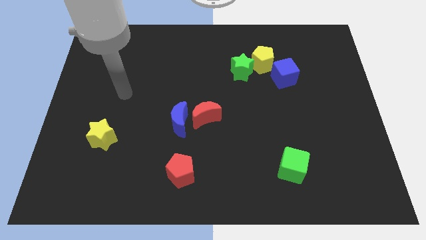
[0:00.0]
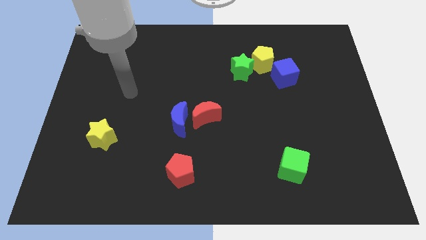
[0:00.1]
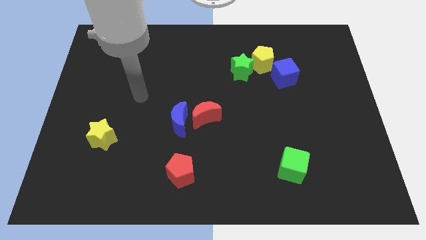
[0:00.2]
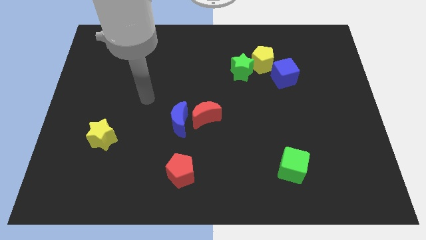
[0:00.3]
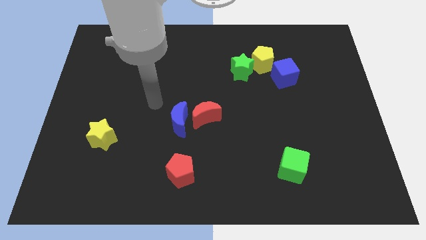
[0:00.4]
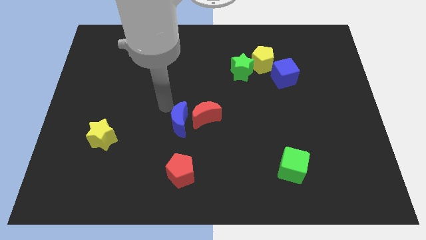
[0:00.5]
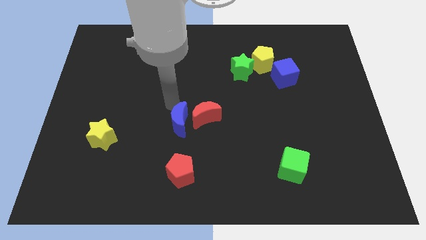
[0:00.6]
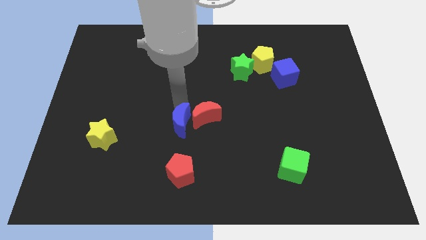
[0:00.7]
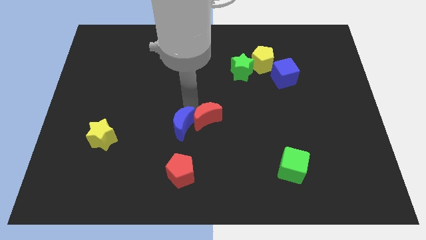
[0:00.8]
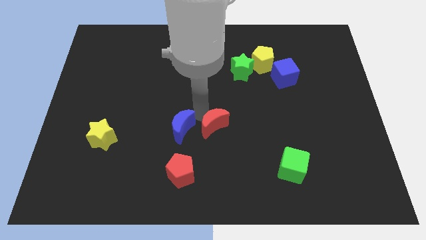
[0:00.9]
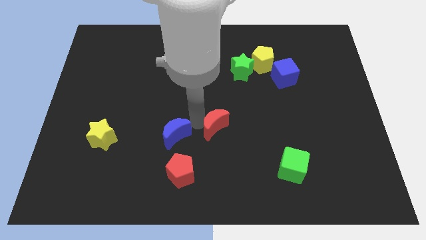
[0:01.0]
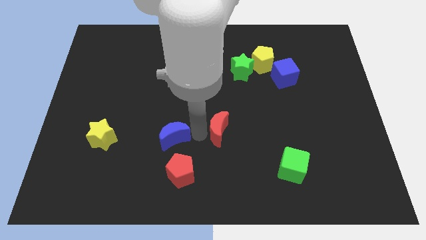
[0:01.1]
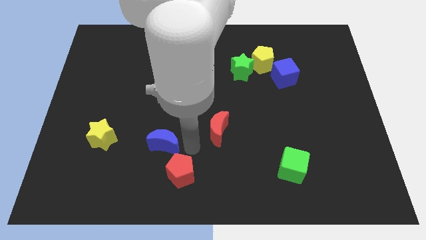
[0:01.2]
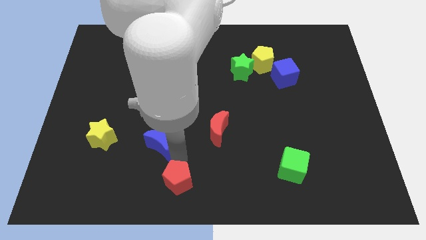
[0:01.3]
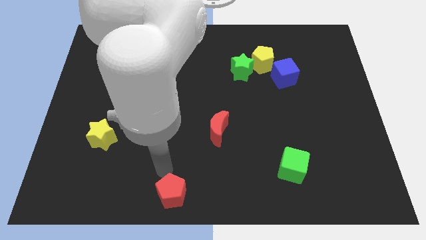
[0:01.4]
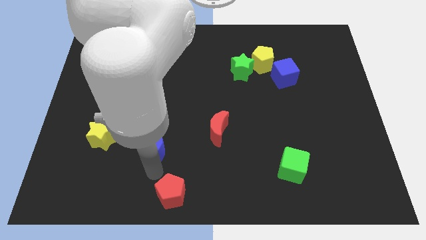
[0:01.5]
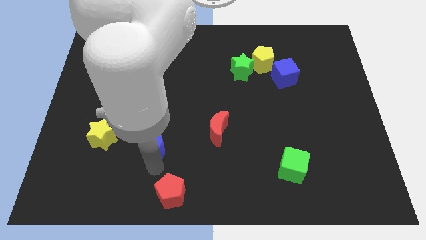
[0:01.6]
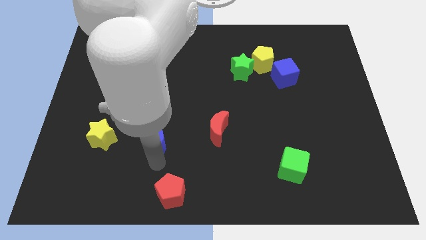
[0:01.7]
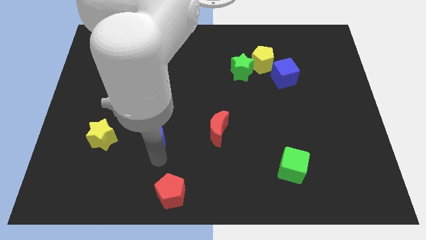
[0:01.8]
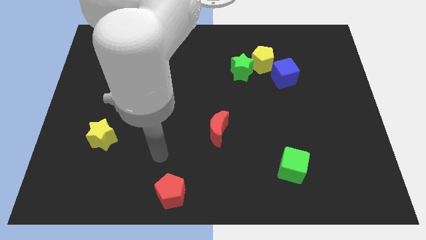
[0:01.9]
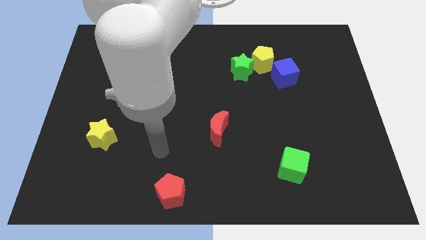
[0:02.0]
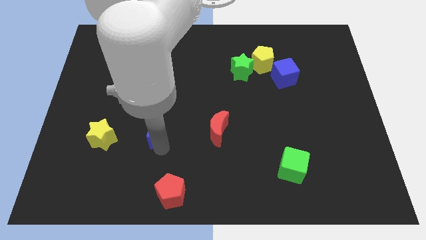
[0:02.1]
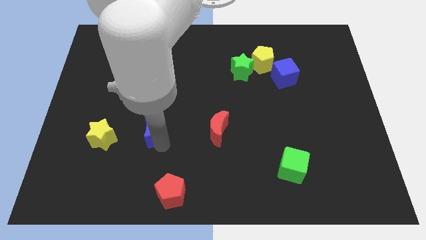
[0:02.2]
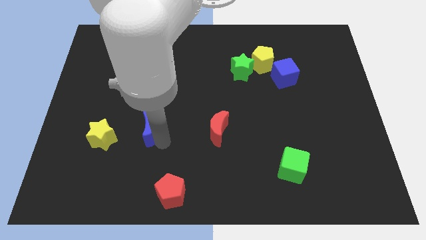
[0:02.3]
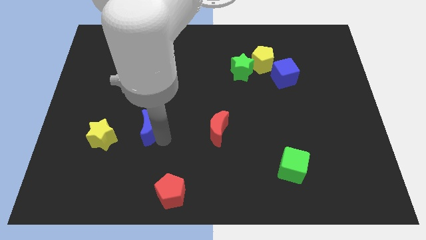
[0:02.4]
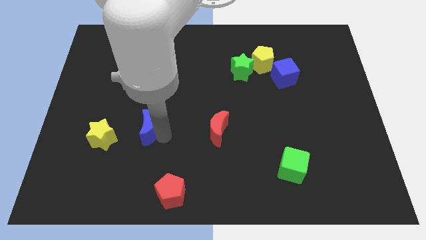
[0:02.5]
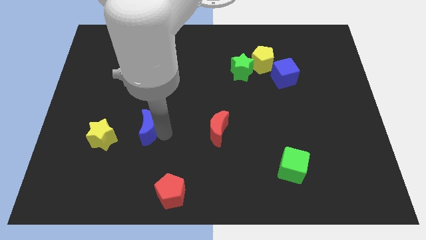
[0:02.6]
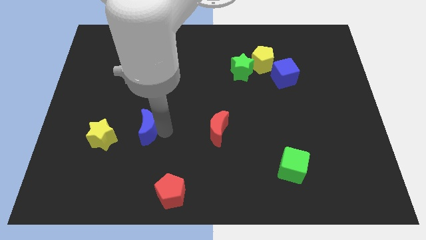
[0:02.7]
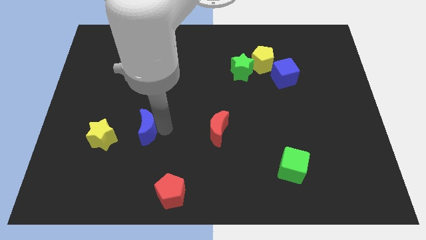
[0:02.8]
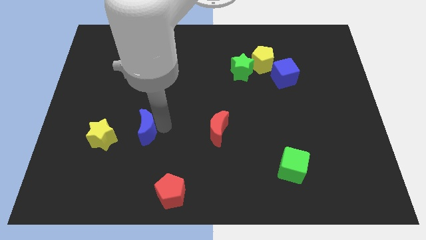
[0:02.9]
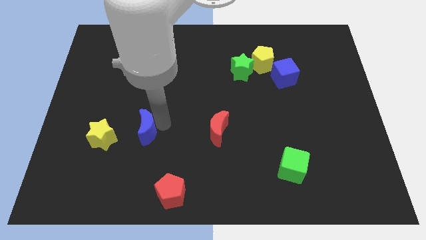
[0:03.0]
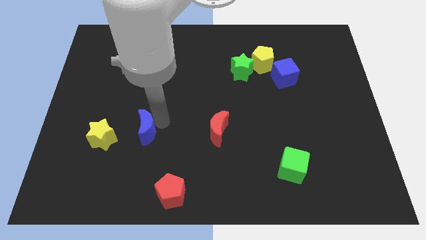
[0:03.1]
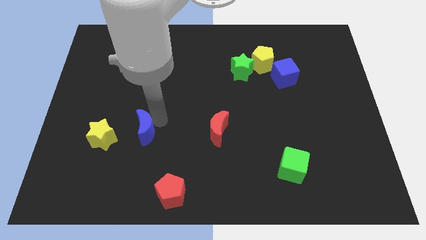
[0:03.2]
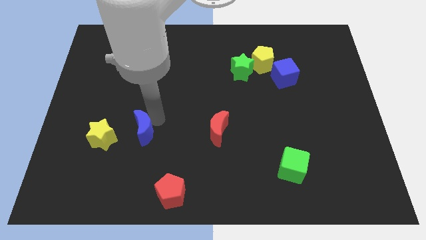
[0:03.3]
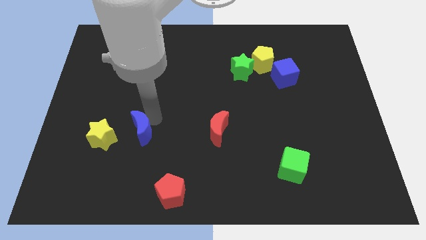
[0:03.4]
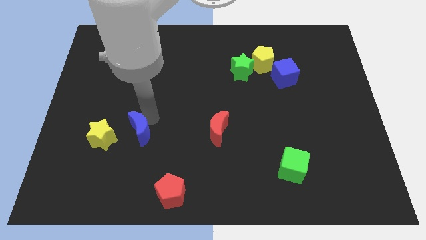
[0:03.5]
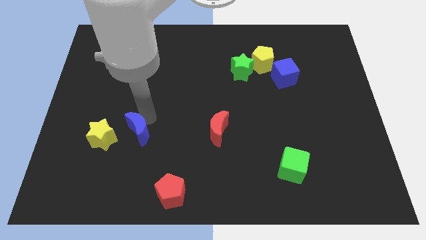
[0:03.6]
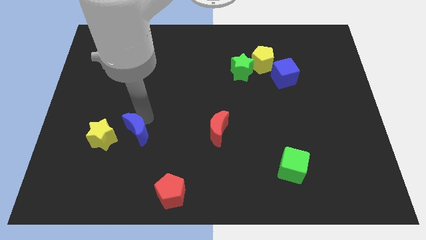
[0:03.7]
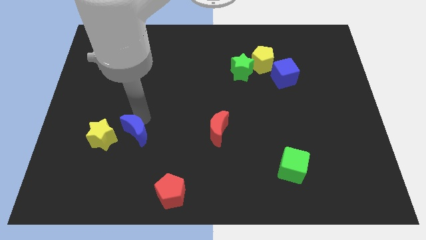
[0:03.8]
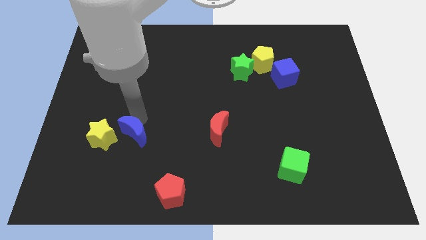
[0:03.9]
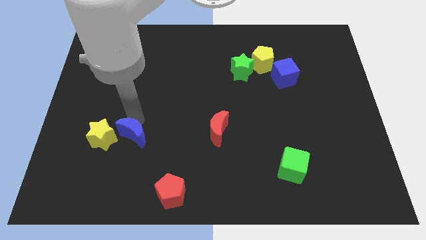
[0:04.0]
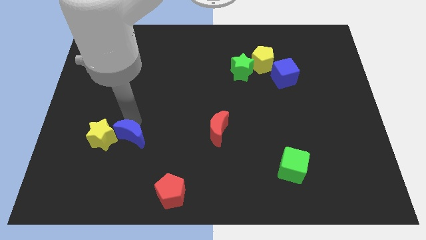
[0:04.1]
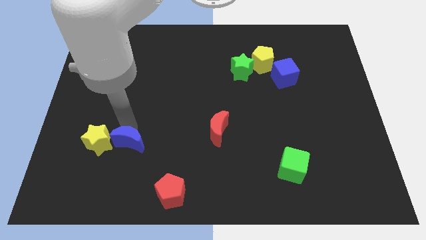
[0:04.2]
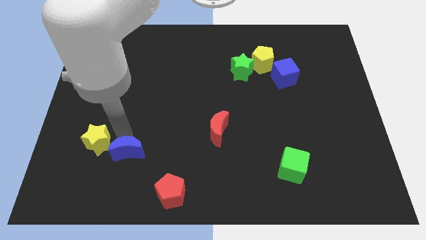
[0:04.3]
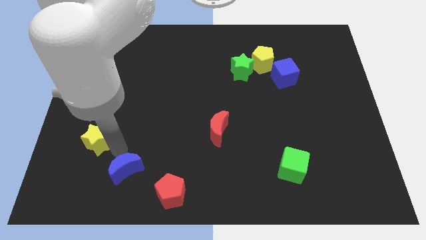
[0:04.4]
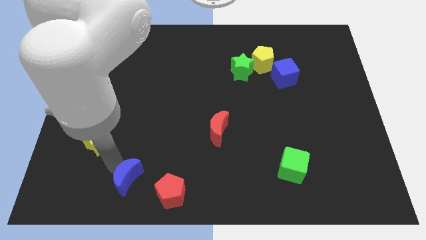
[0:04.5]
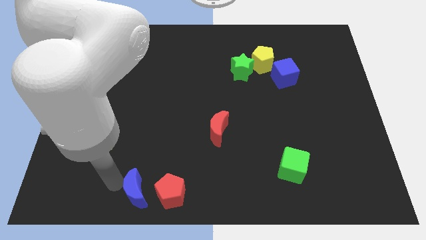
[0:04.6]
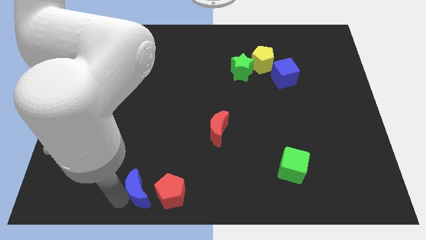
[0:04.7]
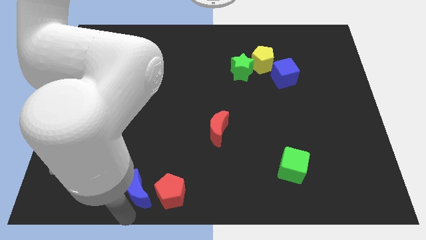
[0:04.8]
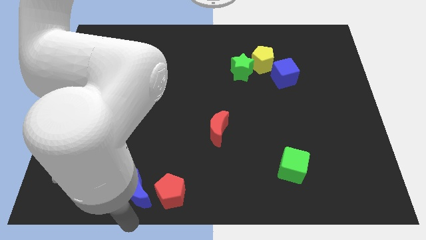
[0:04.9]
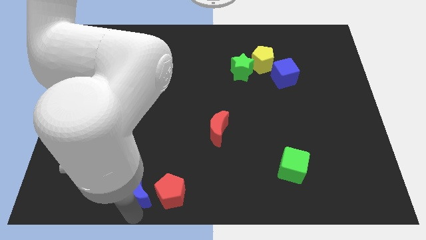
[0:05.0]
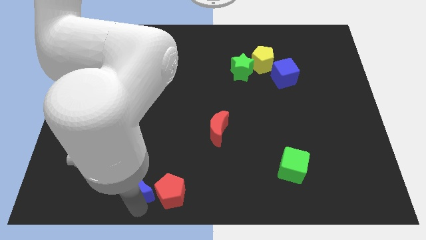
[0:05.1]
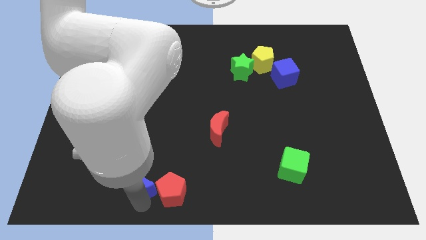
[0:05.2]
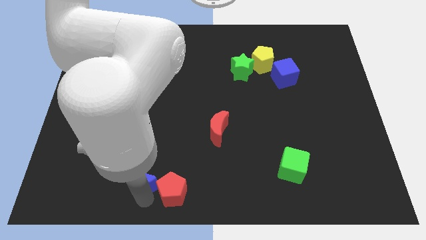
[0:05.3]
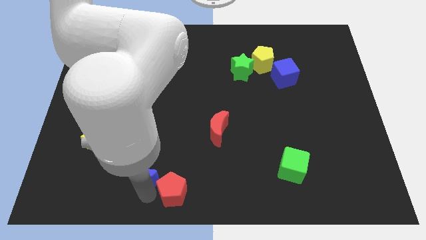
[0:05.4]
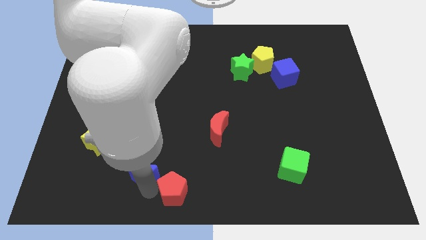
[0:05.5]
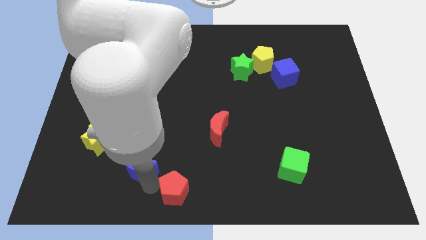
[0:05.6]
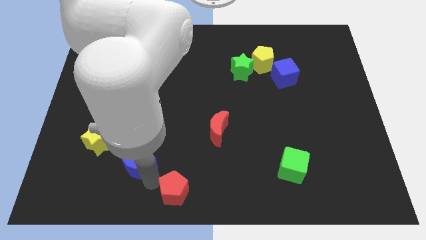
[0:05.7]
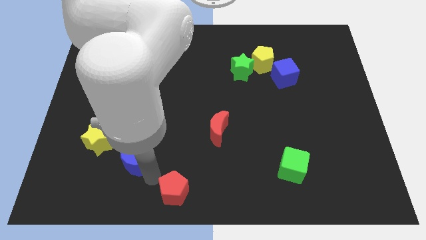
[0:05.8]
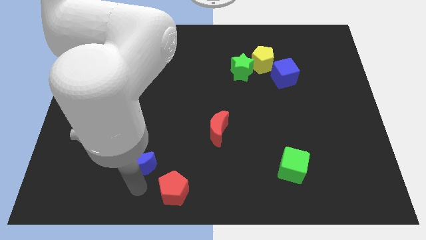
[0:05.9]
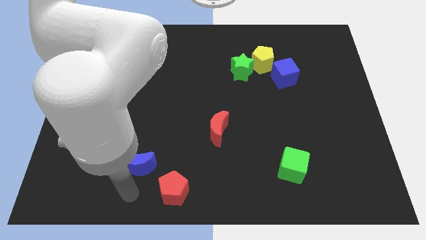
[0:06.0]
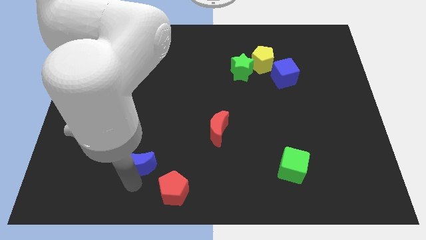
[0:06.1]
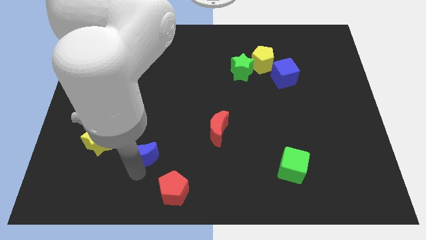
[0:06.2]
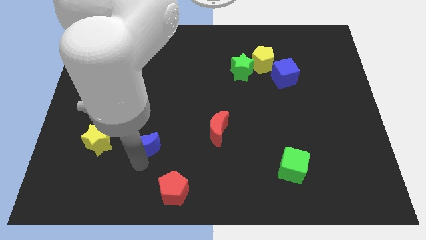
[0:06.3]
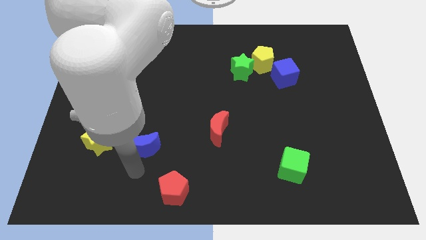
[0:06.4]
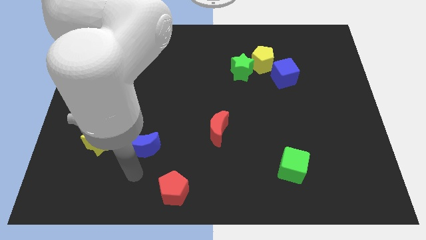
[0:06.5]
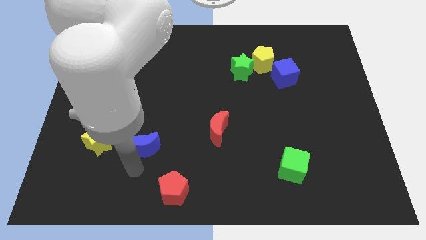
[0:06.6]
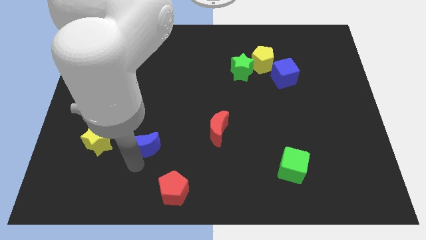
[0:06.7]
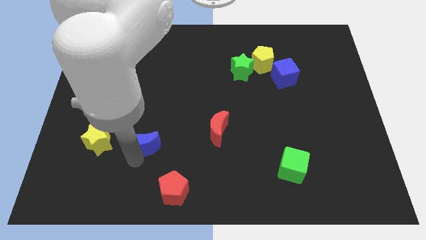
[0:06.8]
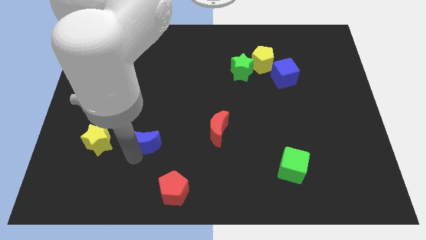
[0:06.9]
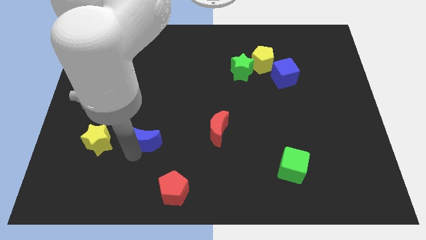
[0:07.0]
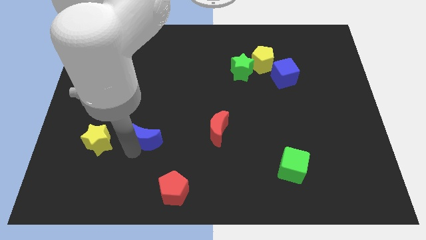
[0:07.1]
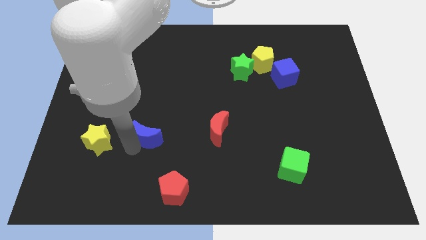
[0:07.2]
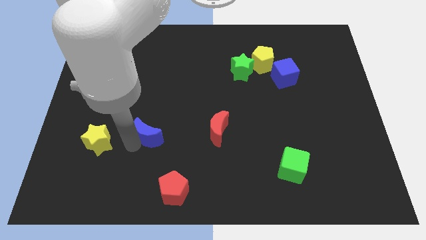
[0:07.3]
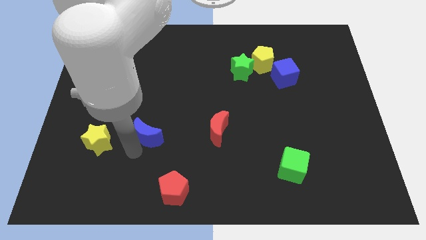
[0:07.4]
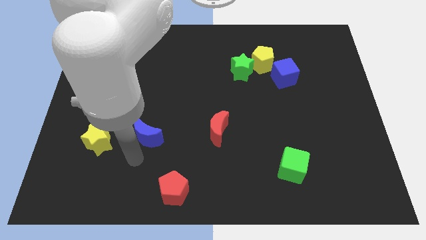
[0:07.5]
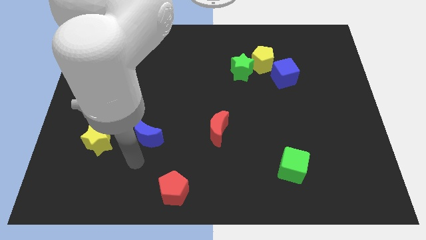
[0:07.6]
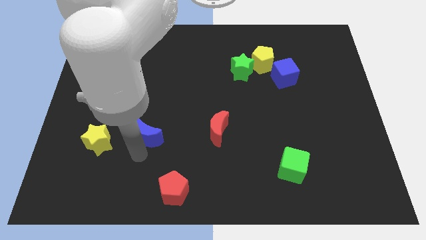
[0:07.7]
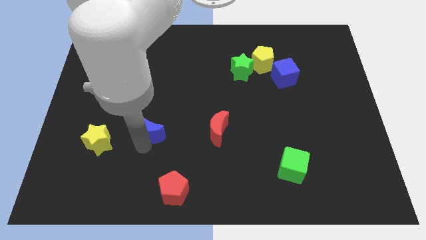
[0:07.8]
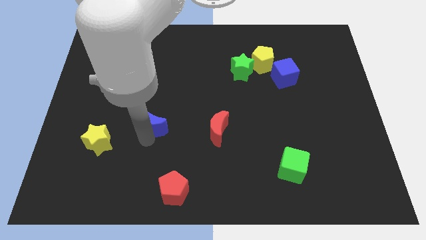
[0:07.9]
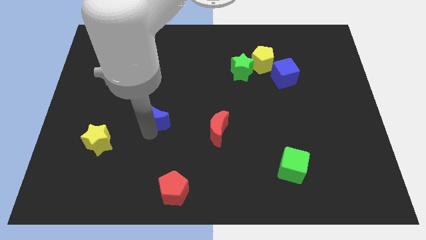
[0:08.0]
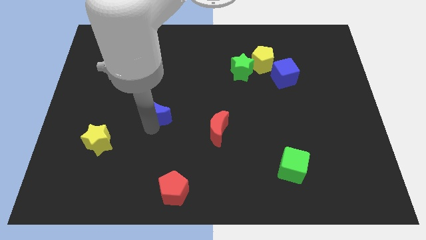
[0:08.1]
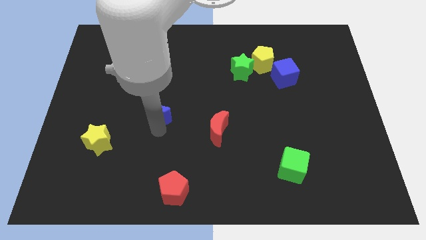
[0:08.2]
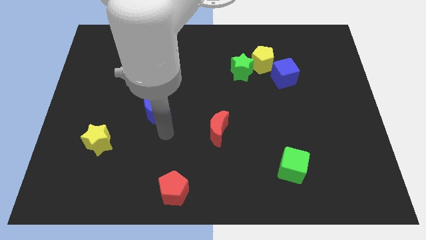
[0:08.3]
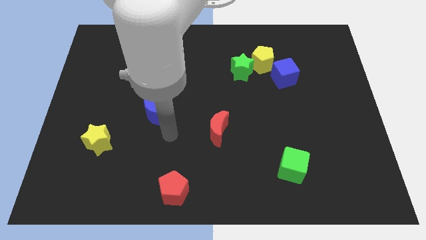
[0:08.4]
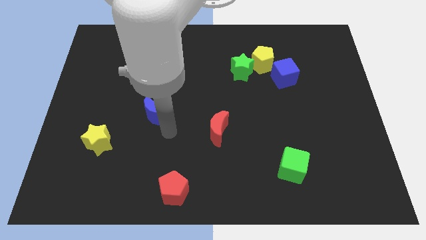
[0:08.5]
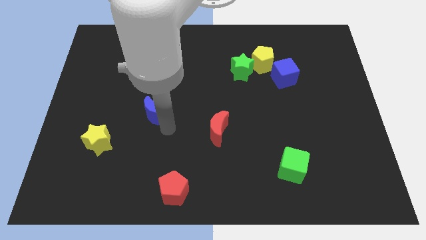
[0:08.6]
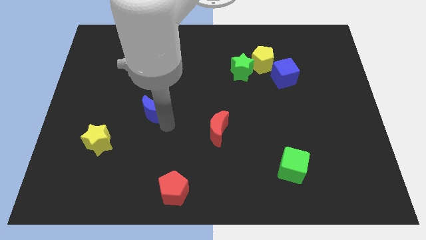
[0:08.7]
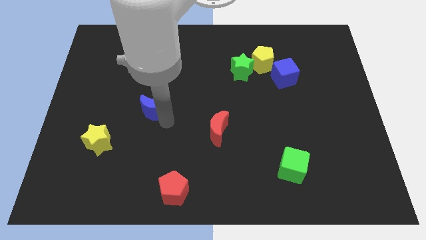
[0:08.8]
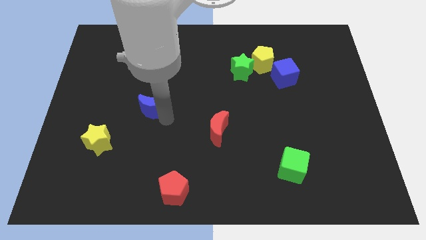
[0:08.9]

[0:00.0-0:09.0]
slide the blue moon a little up and left
